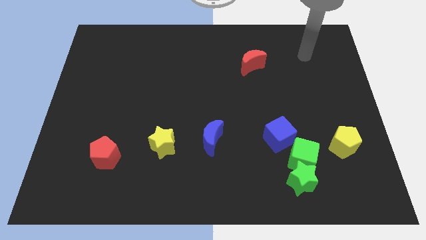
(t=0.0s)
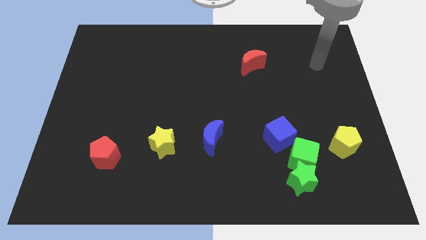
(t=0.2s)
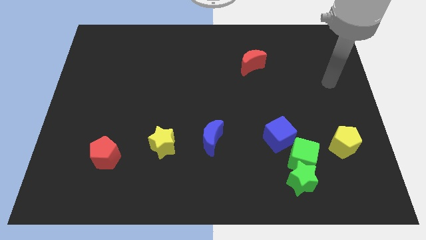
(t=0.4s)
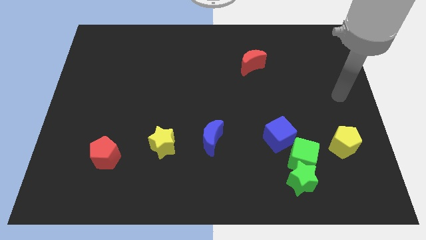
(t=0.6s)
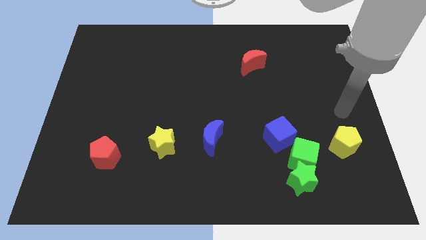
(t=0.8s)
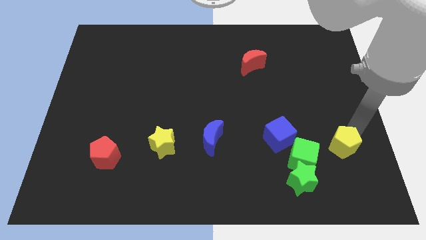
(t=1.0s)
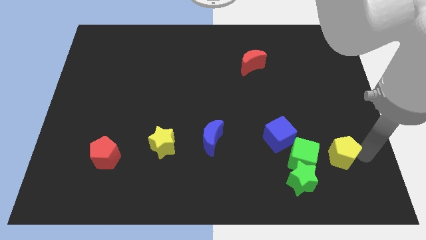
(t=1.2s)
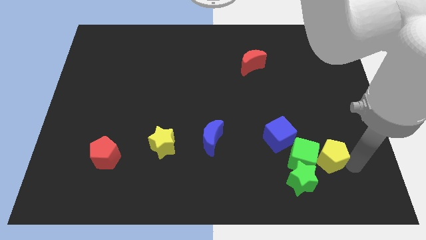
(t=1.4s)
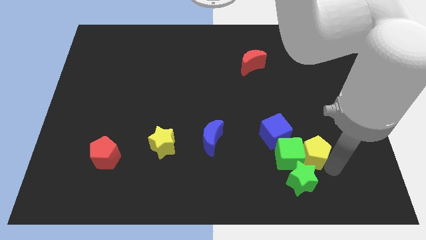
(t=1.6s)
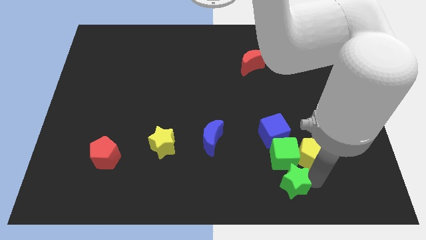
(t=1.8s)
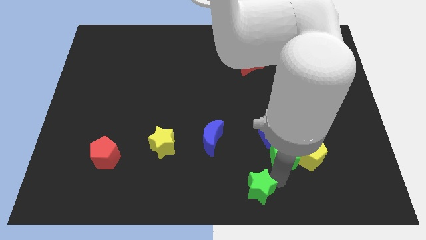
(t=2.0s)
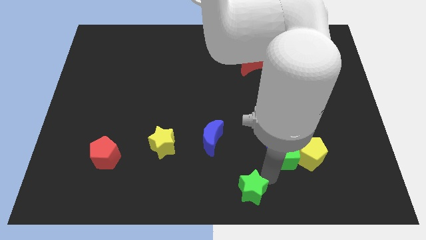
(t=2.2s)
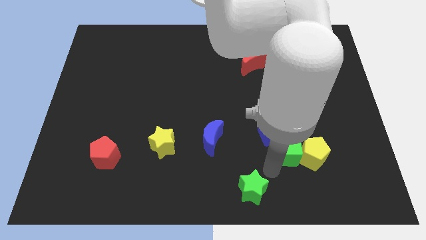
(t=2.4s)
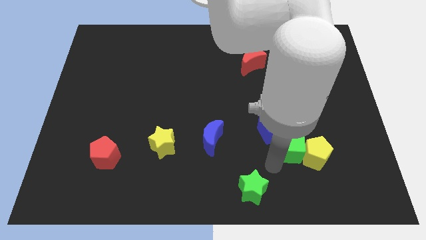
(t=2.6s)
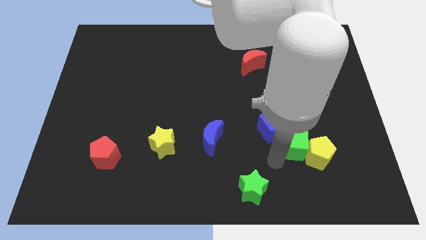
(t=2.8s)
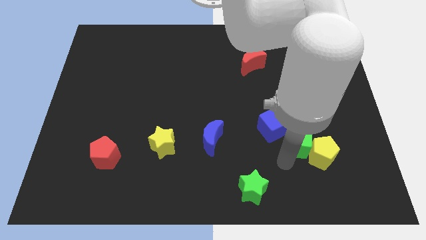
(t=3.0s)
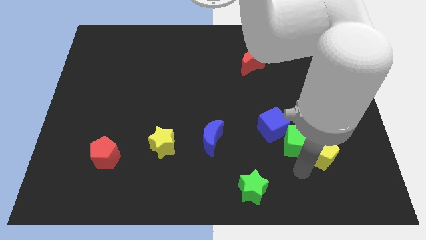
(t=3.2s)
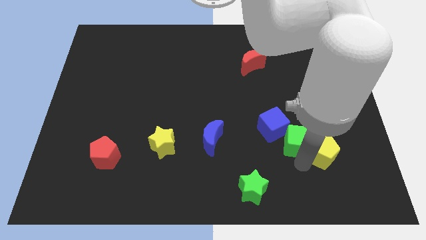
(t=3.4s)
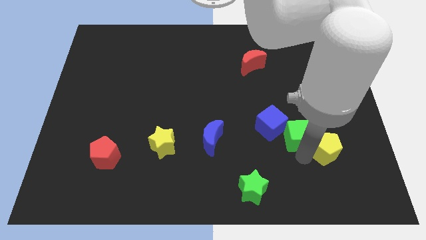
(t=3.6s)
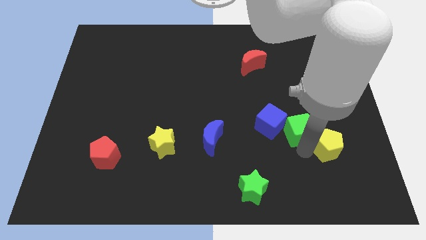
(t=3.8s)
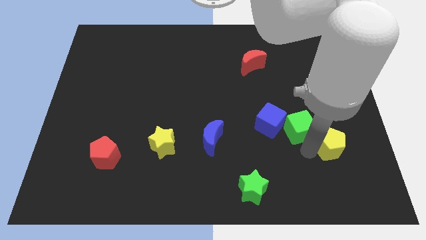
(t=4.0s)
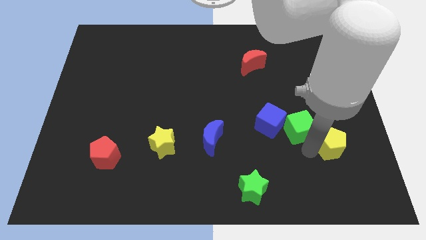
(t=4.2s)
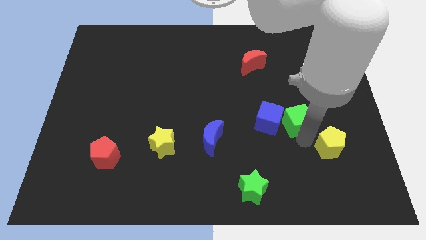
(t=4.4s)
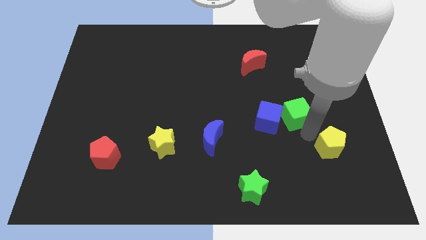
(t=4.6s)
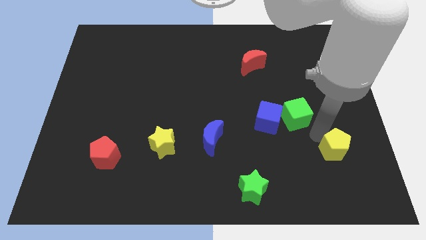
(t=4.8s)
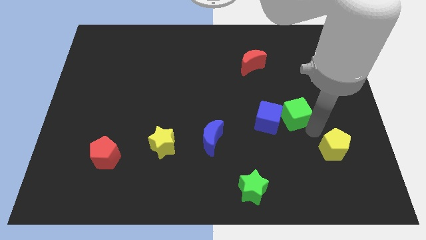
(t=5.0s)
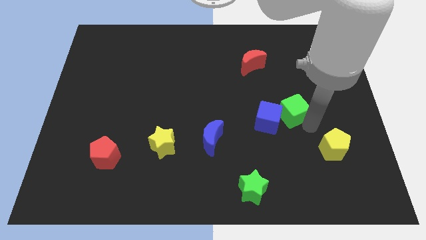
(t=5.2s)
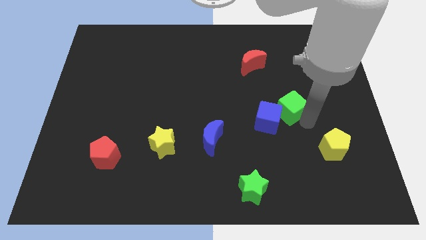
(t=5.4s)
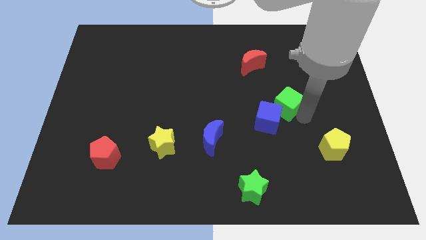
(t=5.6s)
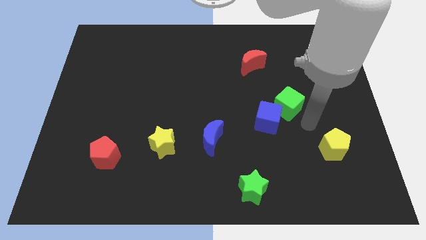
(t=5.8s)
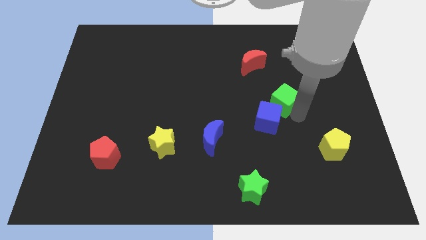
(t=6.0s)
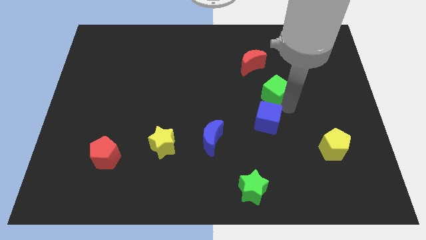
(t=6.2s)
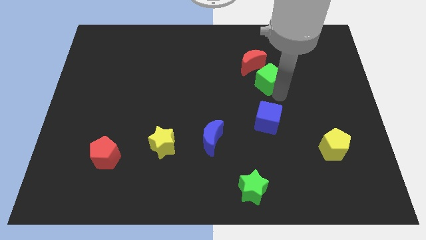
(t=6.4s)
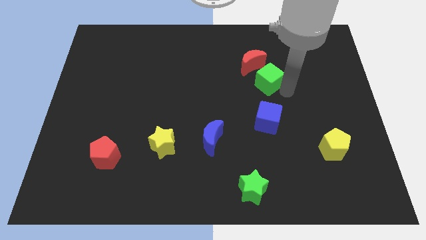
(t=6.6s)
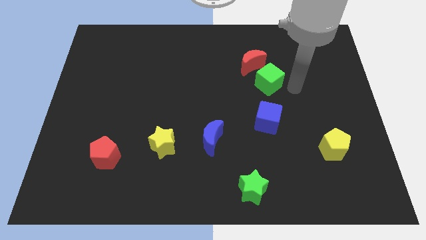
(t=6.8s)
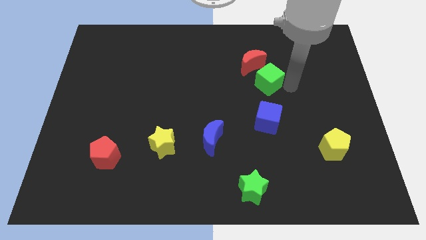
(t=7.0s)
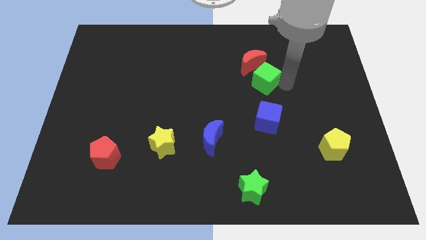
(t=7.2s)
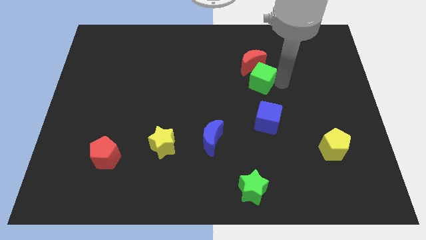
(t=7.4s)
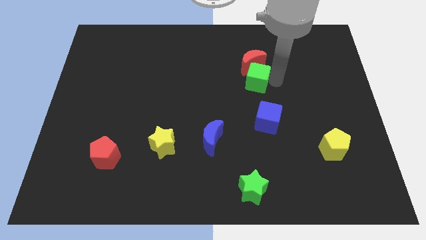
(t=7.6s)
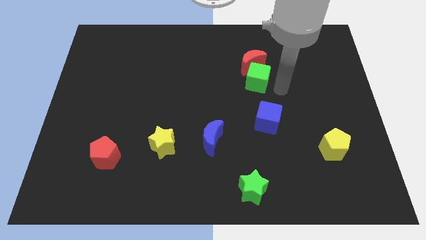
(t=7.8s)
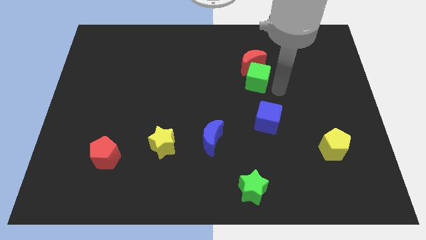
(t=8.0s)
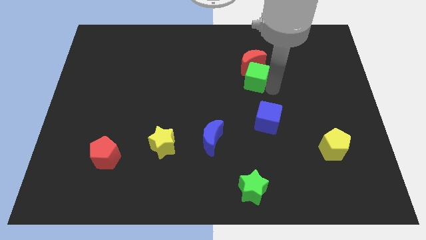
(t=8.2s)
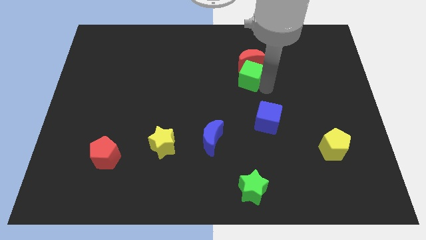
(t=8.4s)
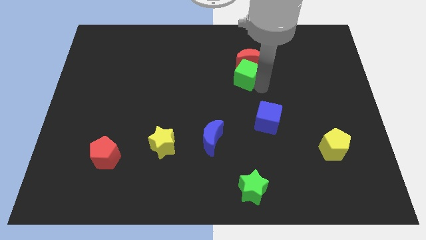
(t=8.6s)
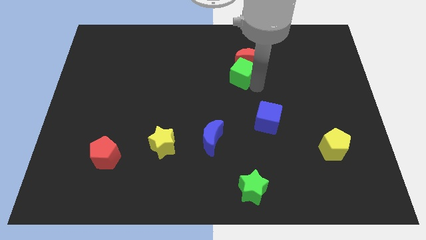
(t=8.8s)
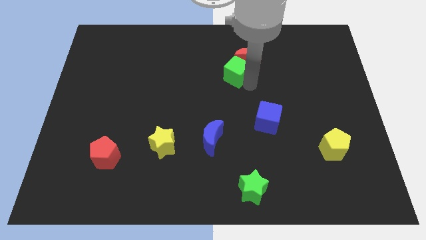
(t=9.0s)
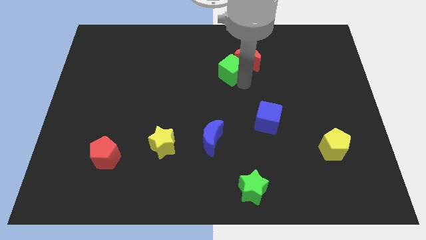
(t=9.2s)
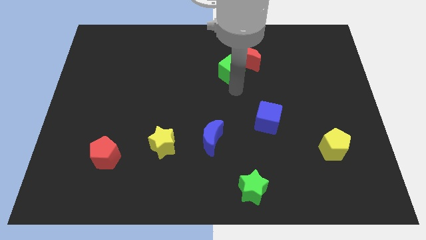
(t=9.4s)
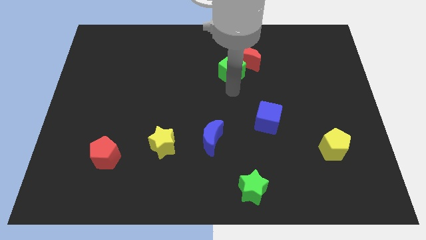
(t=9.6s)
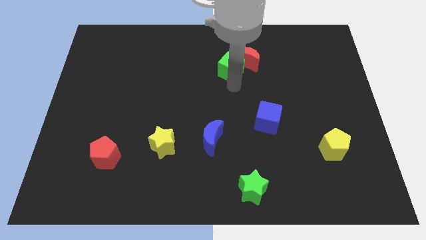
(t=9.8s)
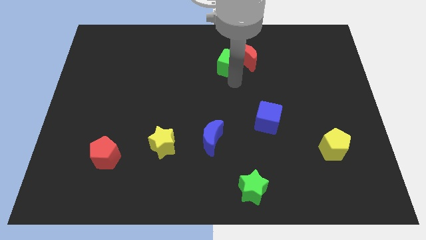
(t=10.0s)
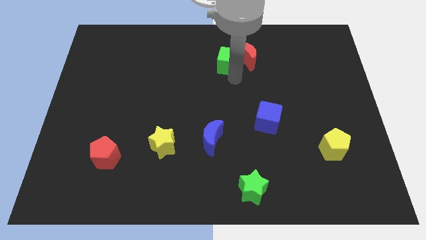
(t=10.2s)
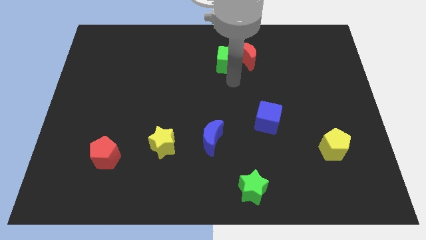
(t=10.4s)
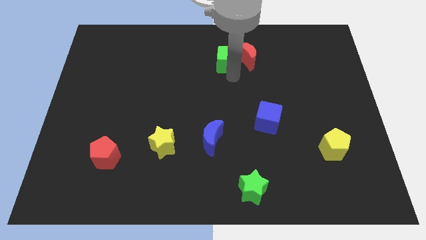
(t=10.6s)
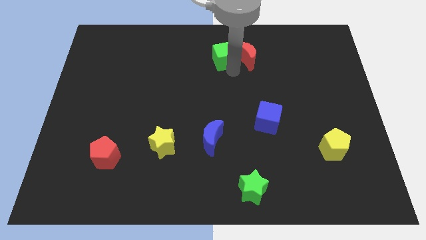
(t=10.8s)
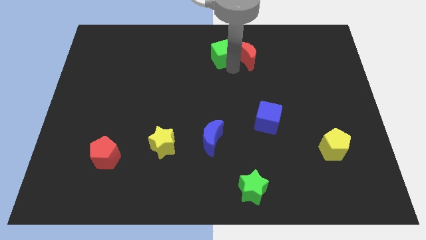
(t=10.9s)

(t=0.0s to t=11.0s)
move the green cube to the towards your base
